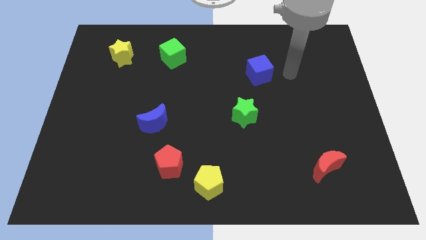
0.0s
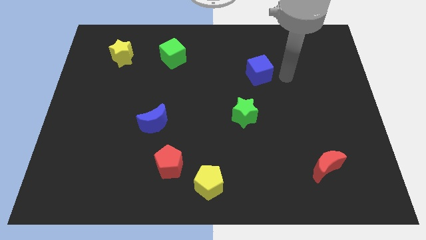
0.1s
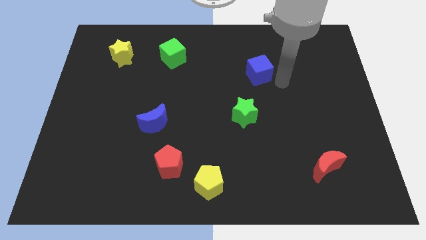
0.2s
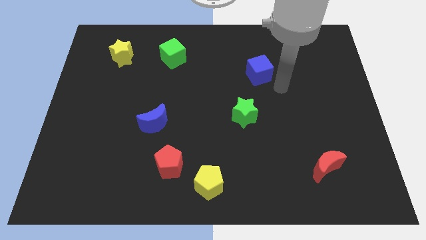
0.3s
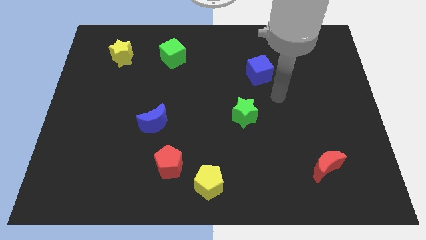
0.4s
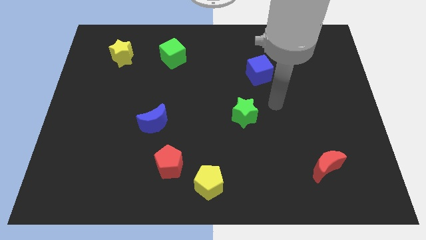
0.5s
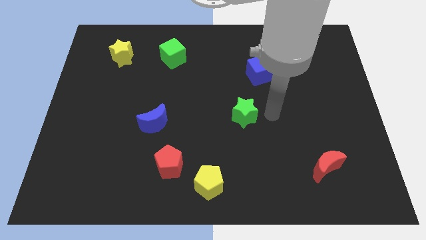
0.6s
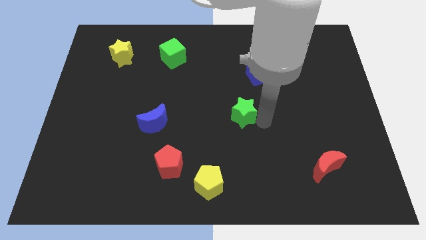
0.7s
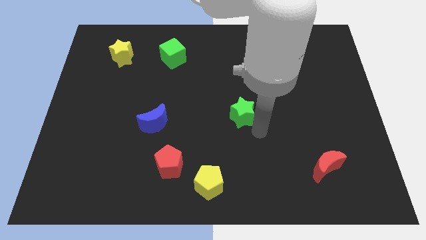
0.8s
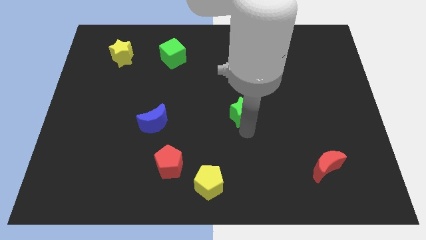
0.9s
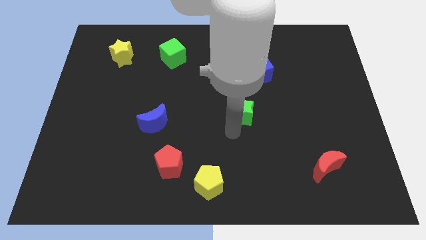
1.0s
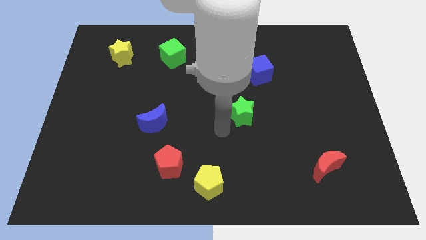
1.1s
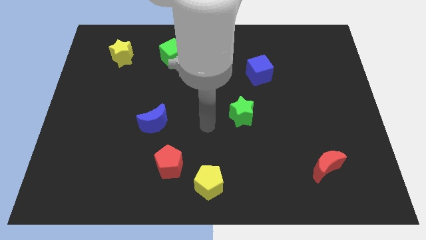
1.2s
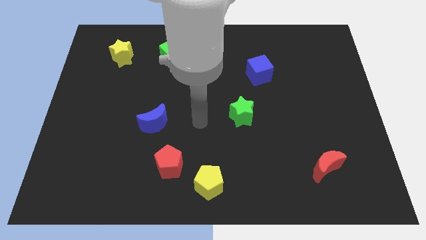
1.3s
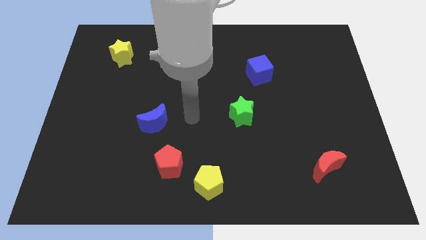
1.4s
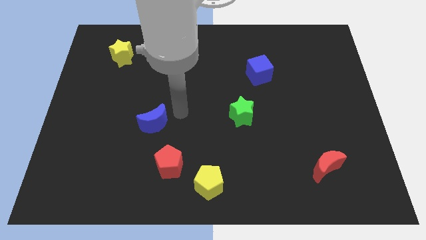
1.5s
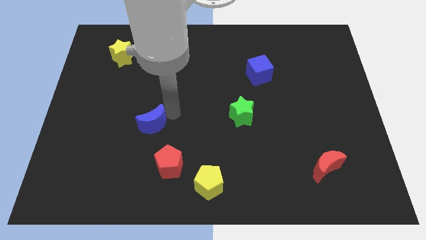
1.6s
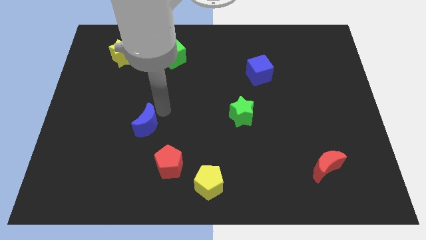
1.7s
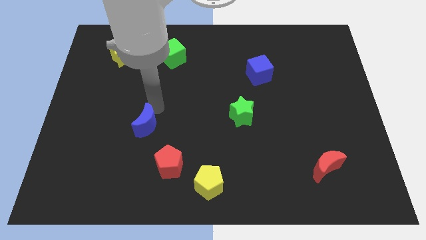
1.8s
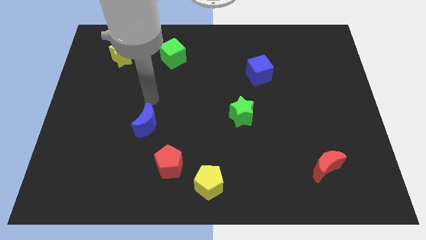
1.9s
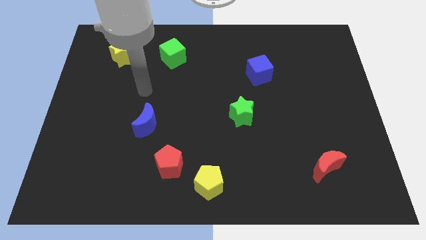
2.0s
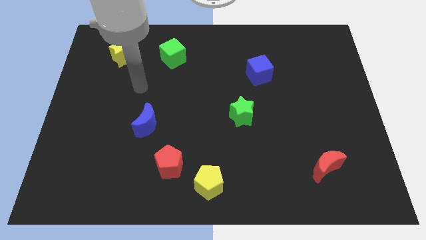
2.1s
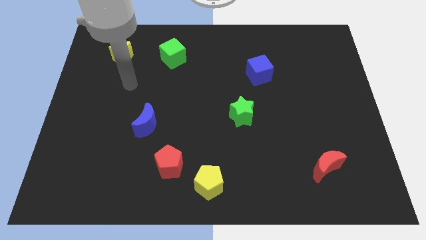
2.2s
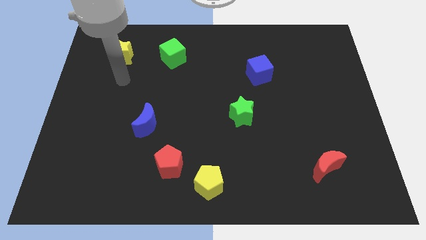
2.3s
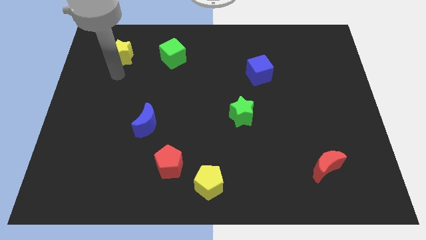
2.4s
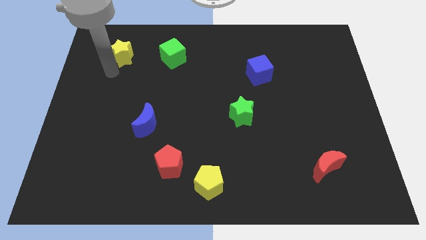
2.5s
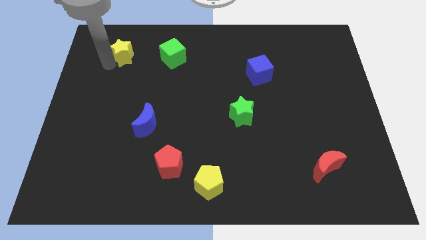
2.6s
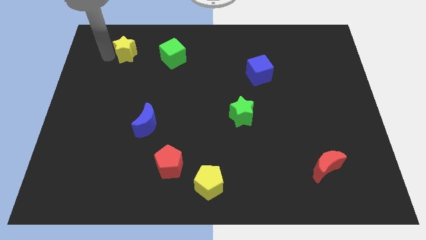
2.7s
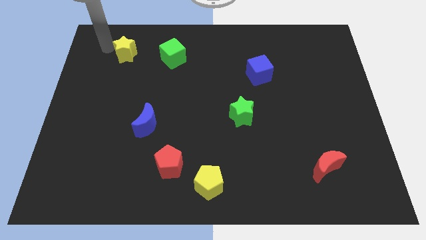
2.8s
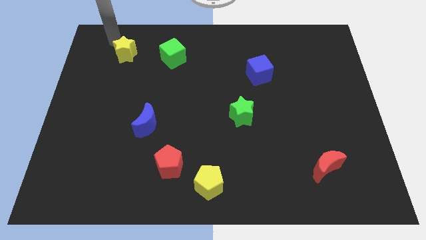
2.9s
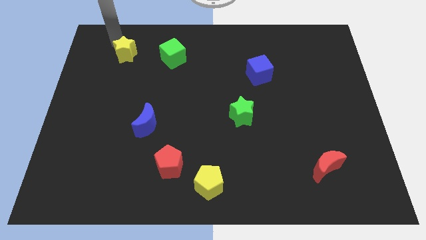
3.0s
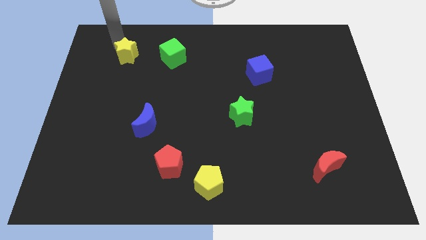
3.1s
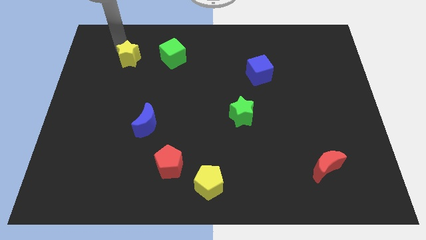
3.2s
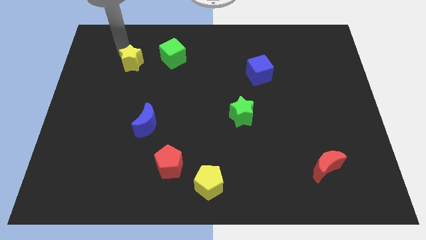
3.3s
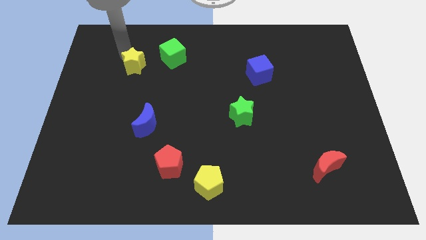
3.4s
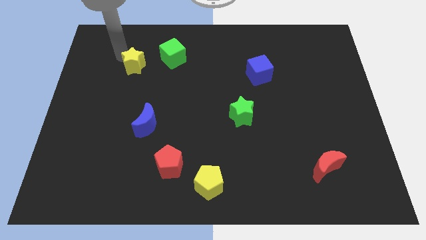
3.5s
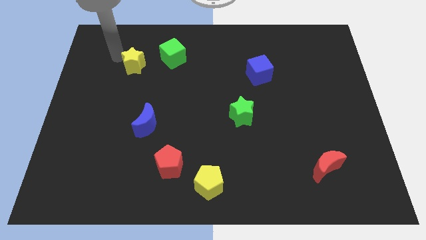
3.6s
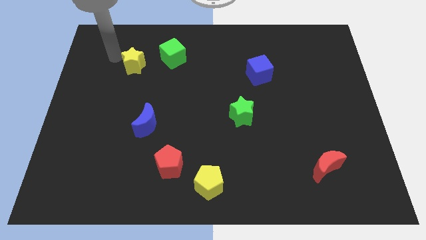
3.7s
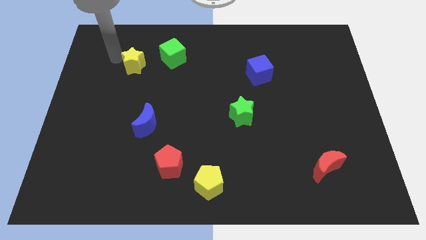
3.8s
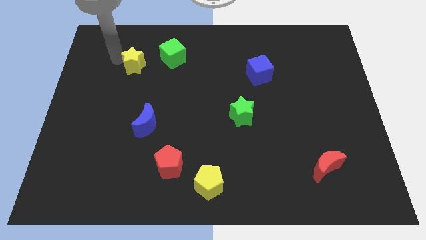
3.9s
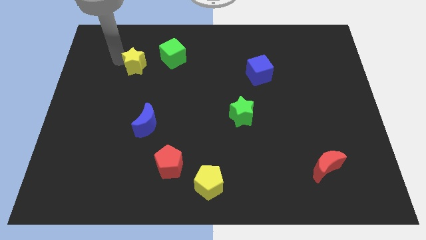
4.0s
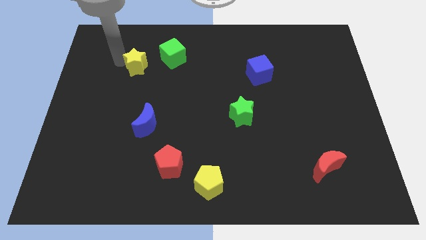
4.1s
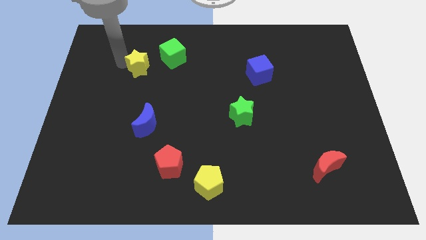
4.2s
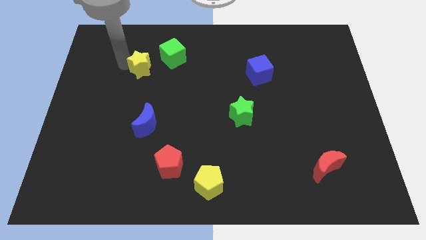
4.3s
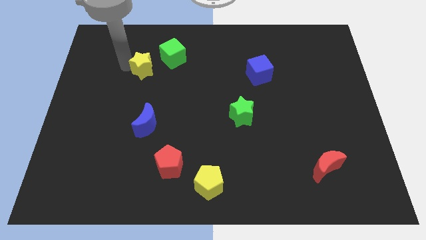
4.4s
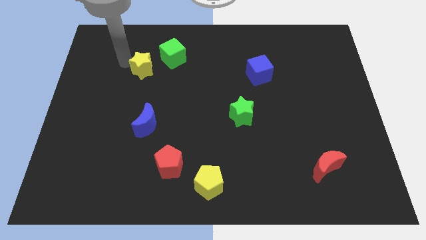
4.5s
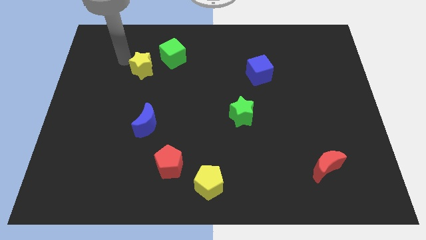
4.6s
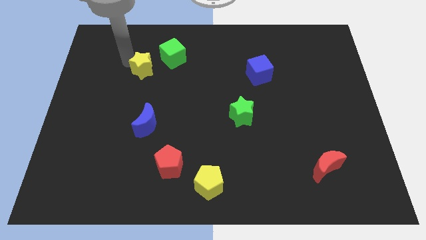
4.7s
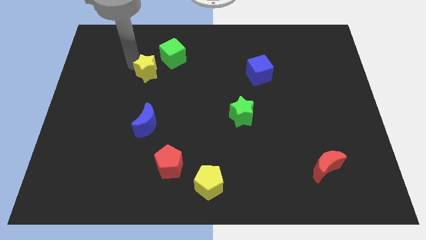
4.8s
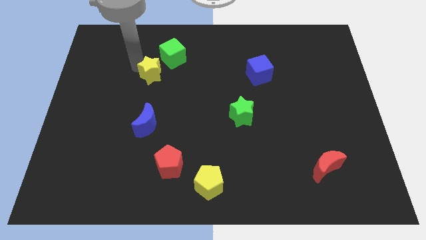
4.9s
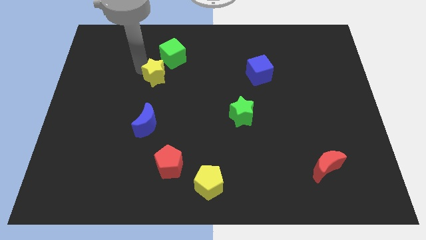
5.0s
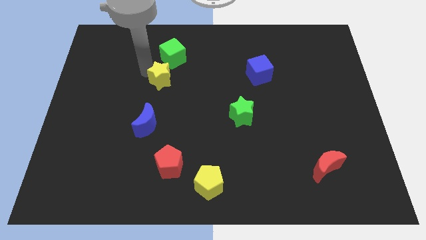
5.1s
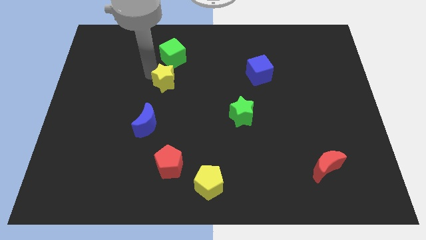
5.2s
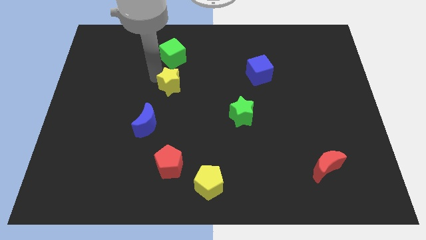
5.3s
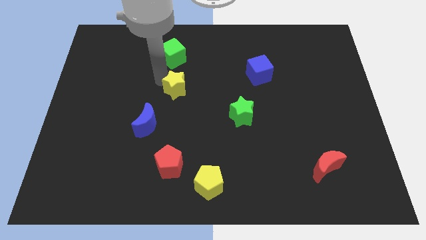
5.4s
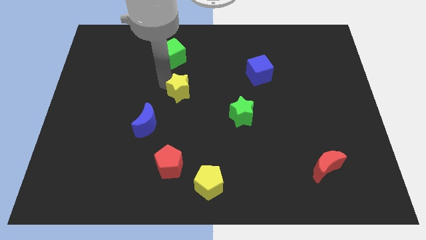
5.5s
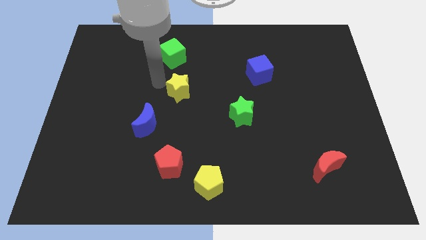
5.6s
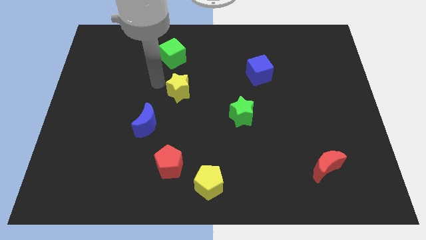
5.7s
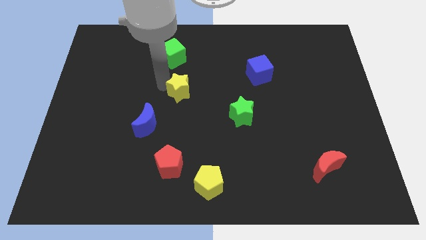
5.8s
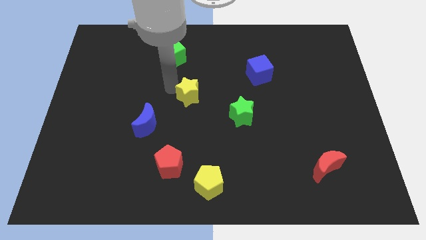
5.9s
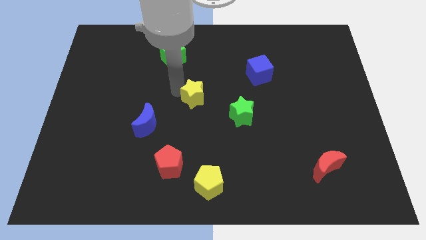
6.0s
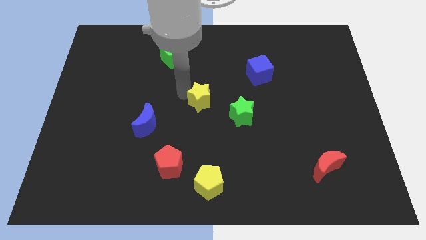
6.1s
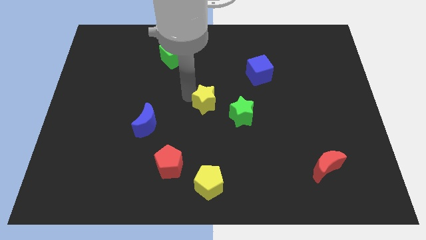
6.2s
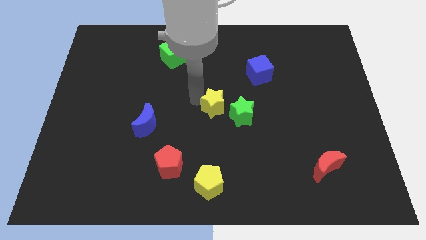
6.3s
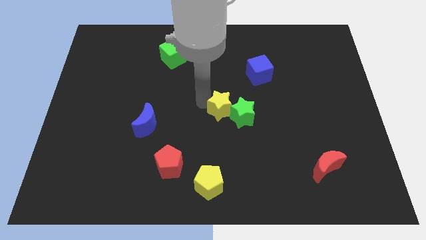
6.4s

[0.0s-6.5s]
push the yellow star next to the green star

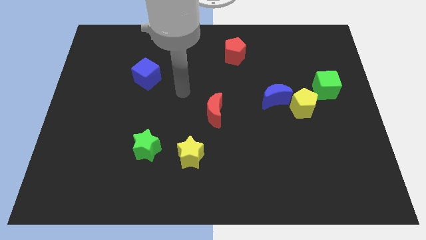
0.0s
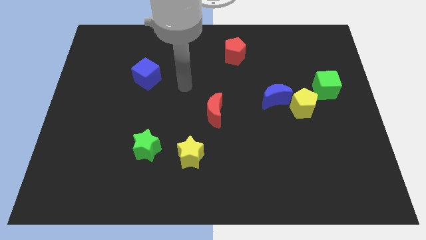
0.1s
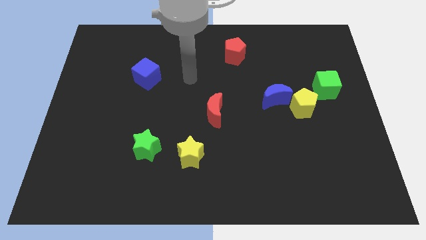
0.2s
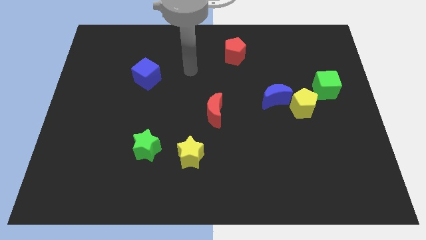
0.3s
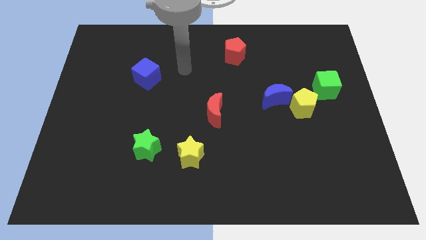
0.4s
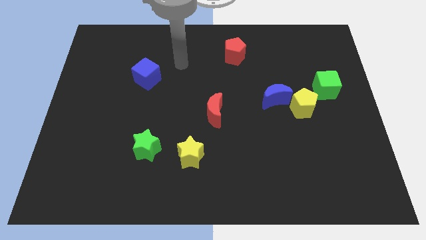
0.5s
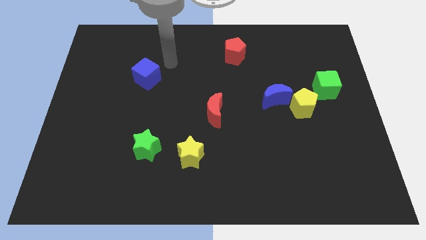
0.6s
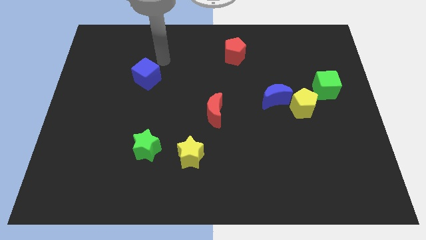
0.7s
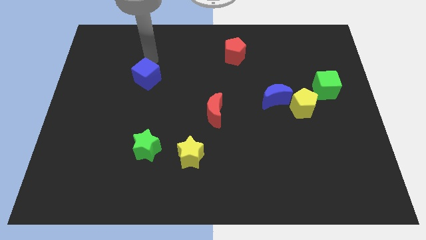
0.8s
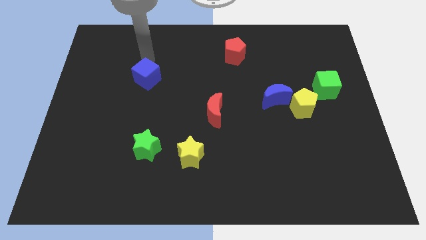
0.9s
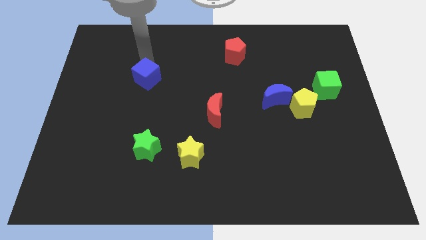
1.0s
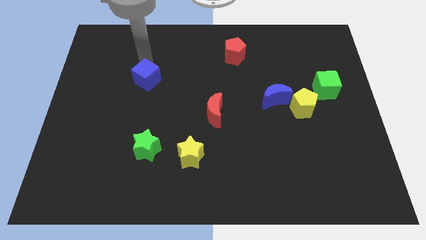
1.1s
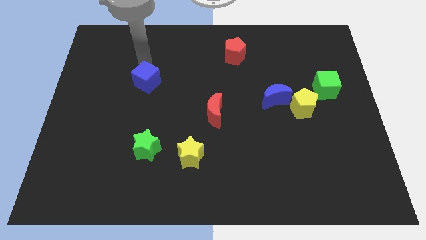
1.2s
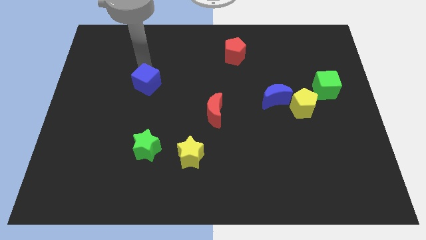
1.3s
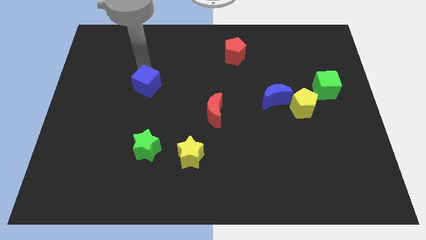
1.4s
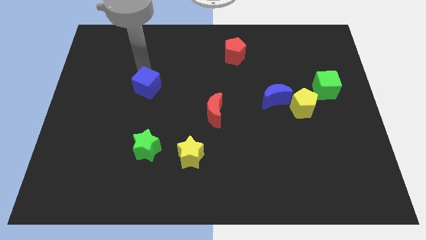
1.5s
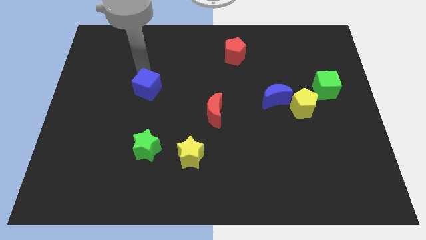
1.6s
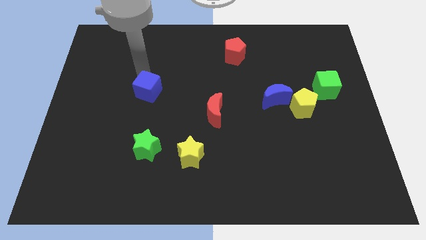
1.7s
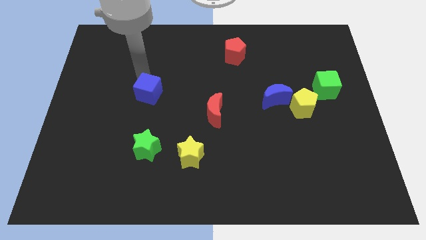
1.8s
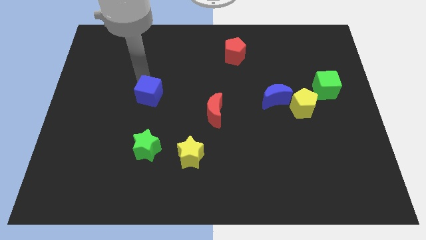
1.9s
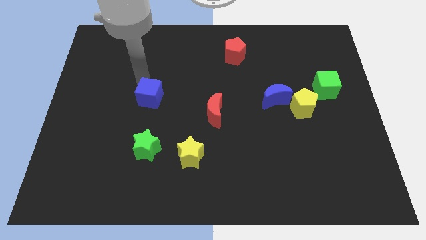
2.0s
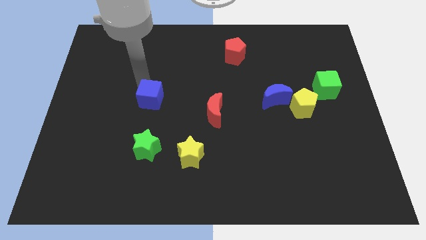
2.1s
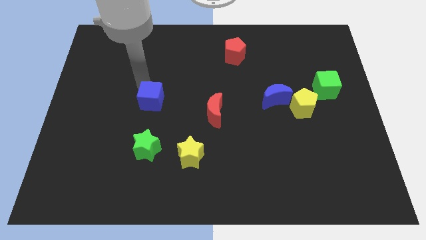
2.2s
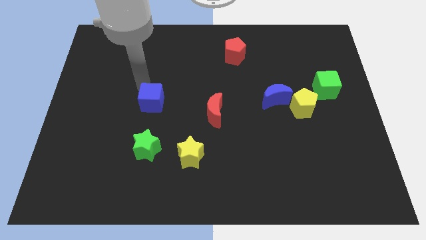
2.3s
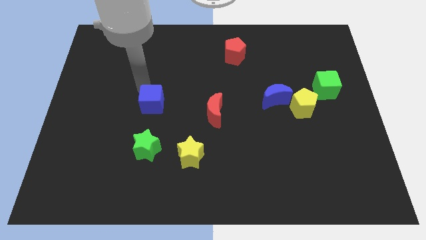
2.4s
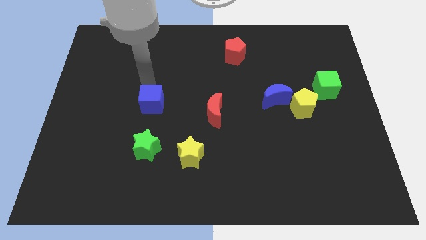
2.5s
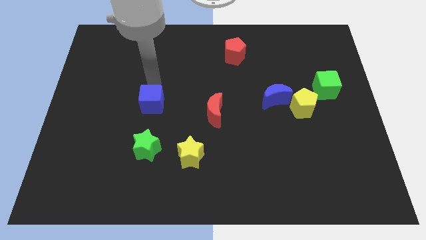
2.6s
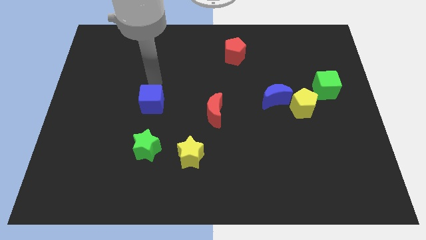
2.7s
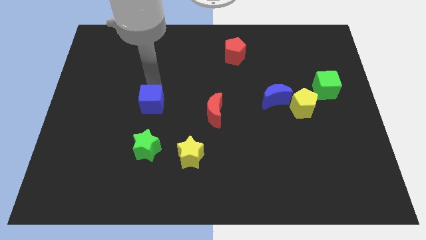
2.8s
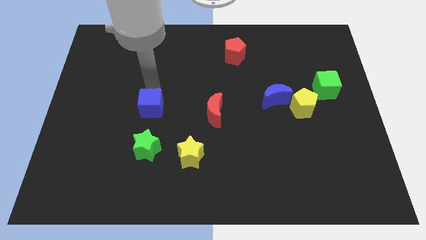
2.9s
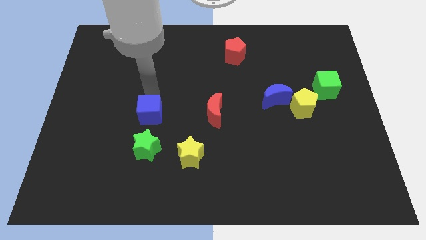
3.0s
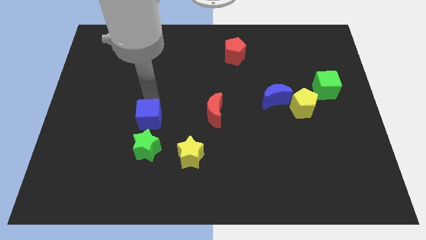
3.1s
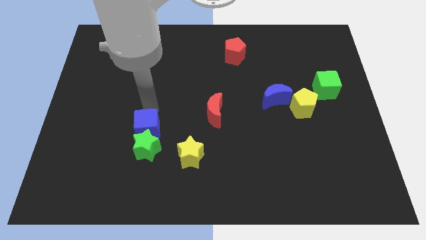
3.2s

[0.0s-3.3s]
move the blue cube to the green star
